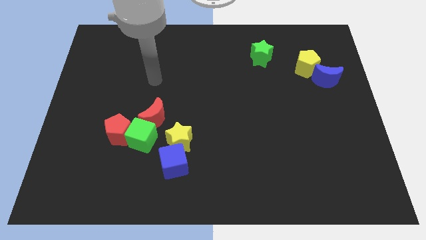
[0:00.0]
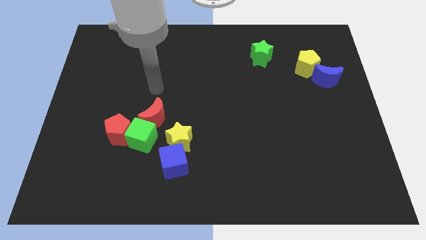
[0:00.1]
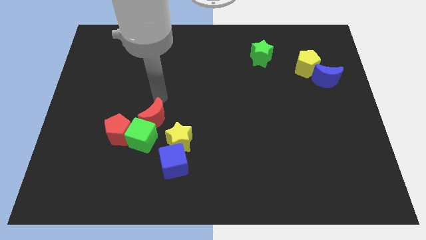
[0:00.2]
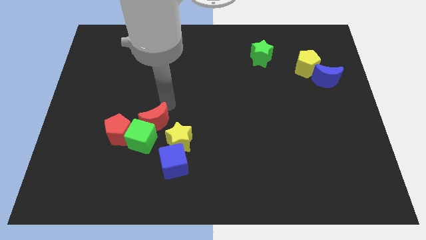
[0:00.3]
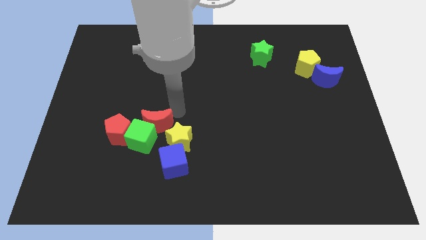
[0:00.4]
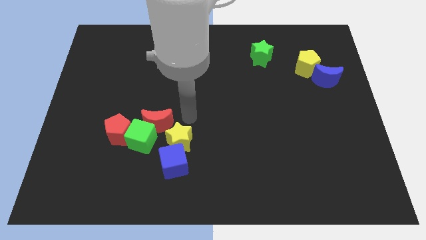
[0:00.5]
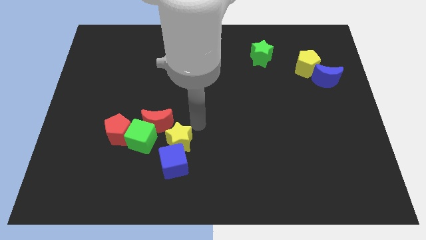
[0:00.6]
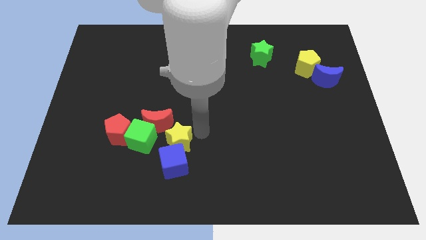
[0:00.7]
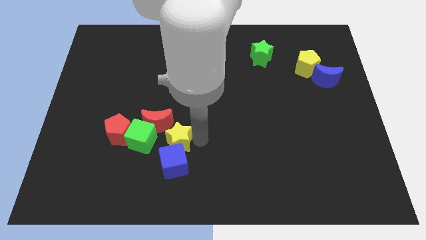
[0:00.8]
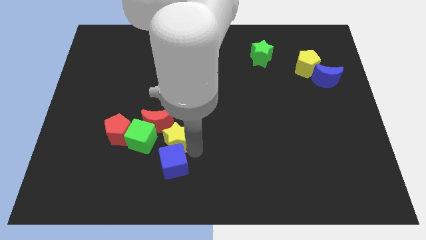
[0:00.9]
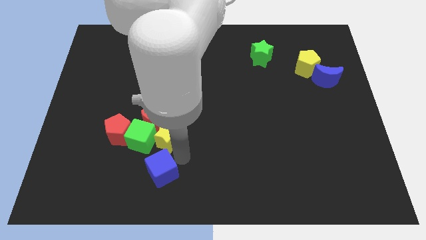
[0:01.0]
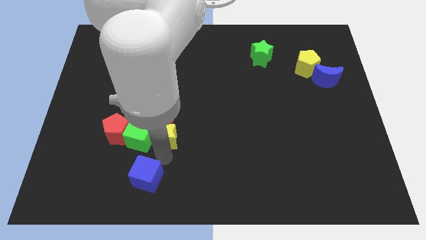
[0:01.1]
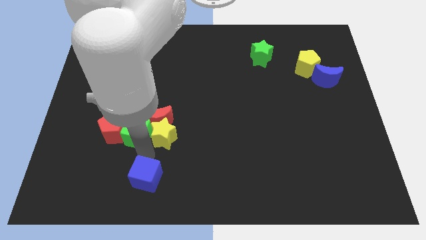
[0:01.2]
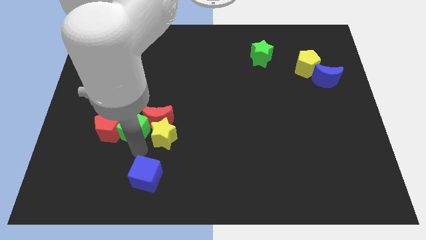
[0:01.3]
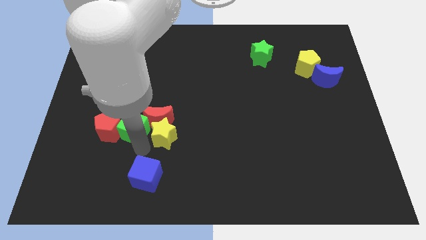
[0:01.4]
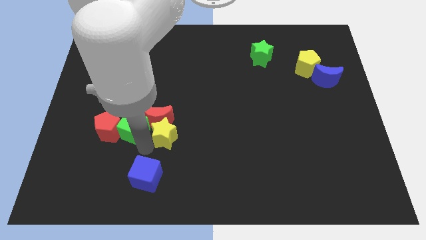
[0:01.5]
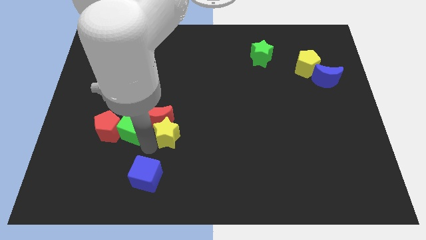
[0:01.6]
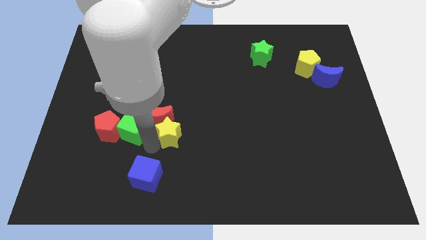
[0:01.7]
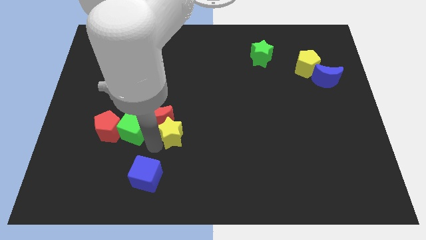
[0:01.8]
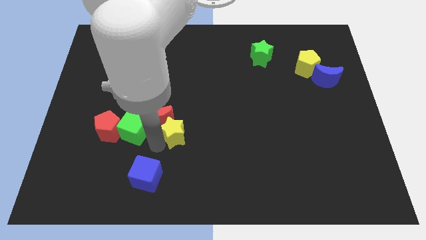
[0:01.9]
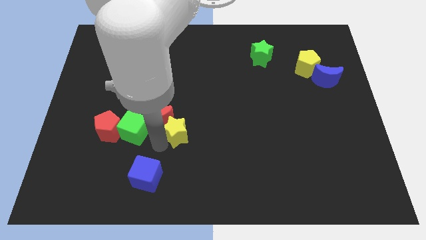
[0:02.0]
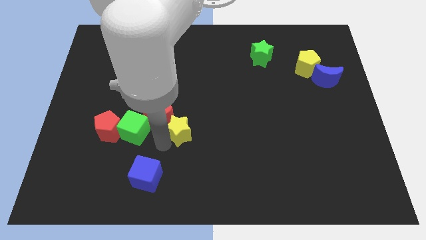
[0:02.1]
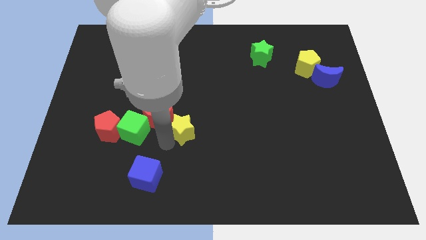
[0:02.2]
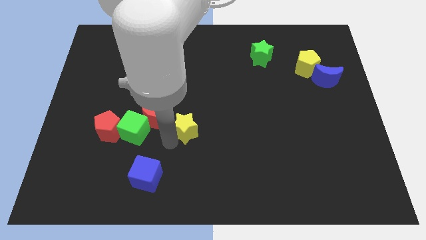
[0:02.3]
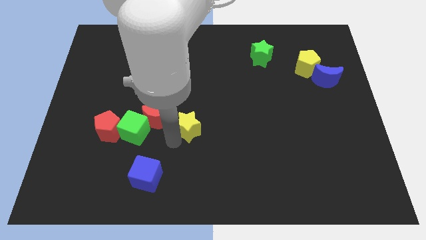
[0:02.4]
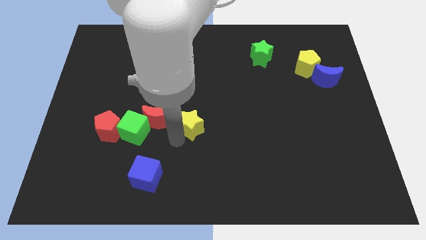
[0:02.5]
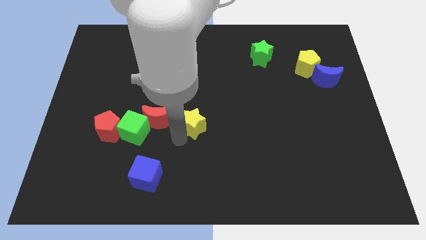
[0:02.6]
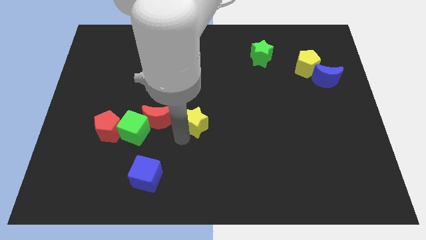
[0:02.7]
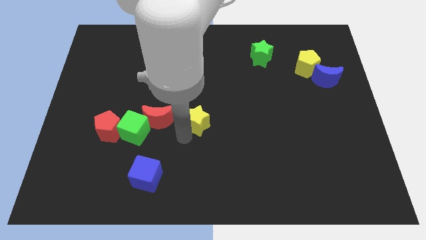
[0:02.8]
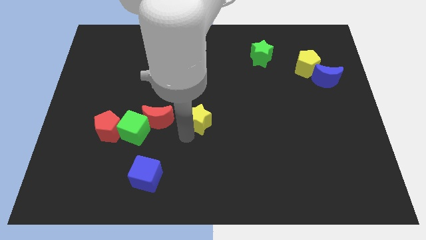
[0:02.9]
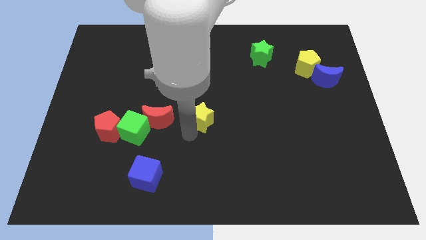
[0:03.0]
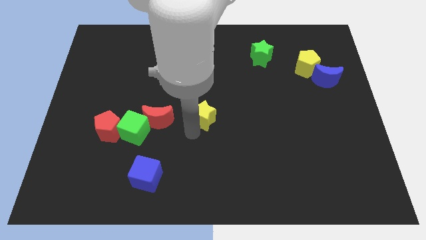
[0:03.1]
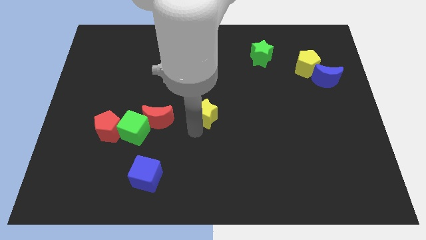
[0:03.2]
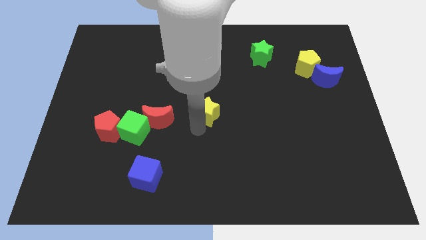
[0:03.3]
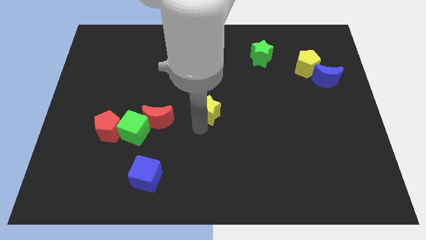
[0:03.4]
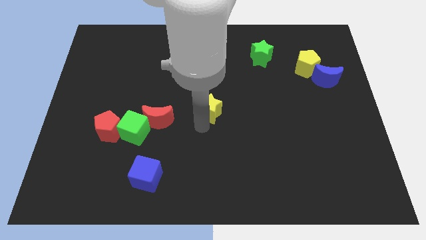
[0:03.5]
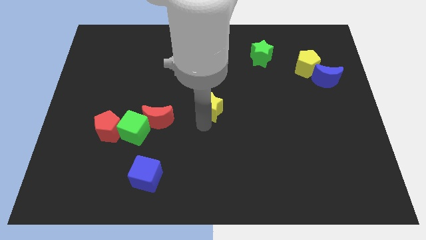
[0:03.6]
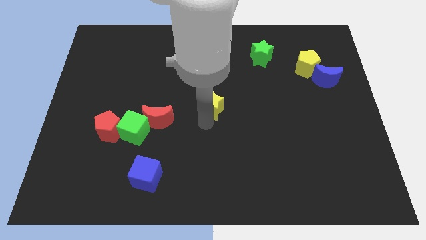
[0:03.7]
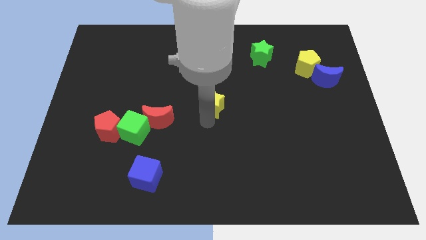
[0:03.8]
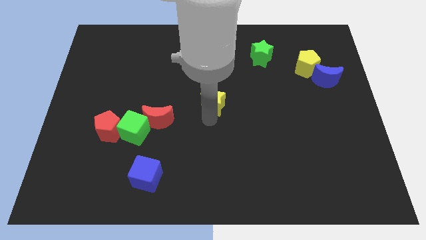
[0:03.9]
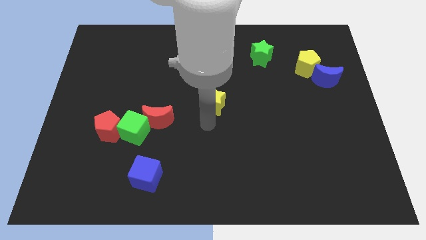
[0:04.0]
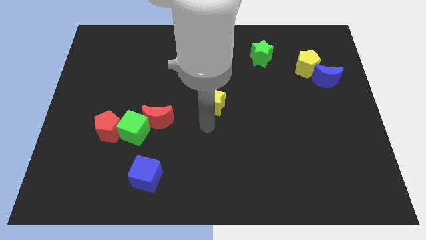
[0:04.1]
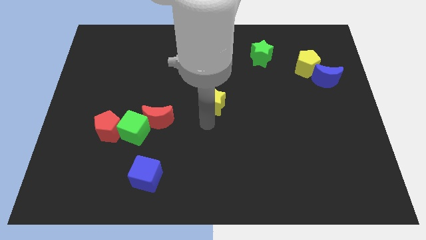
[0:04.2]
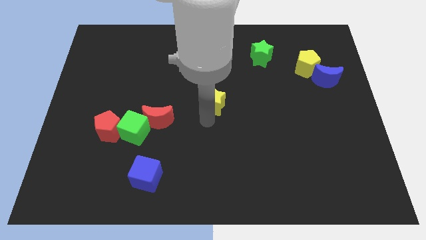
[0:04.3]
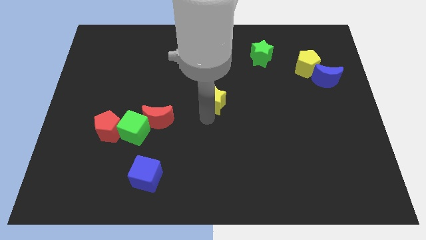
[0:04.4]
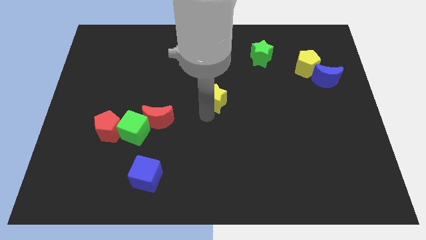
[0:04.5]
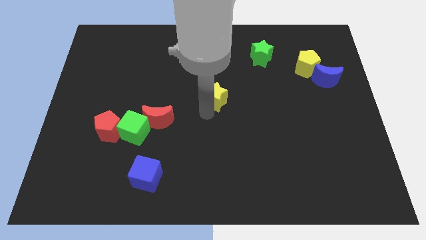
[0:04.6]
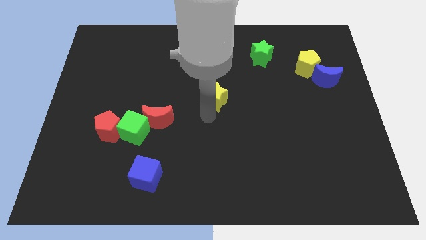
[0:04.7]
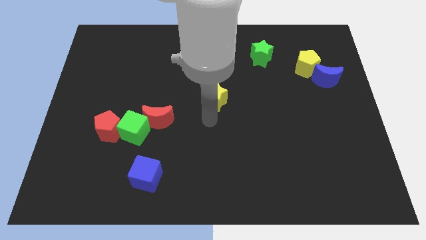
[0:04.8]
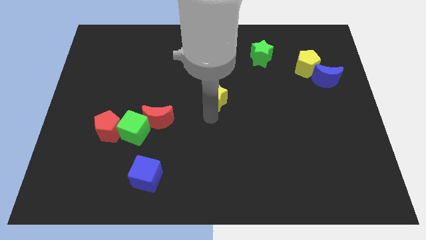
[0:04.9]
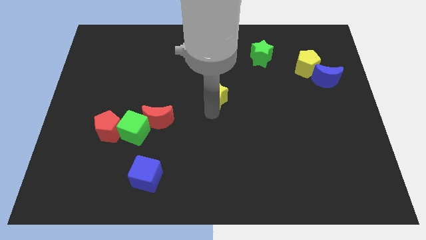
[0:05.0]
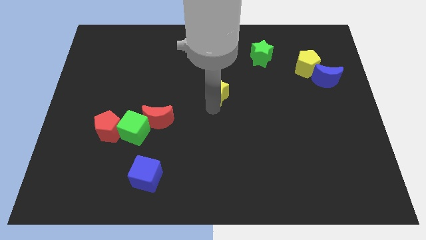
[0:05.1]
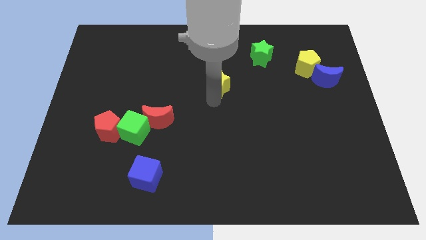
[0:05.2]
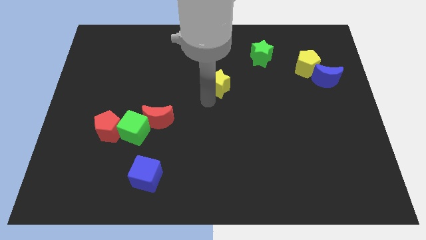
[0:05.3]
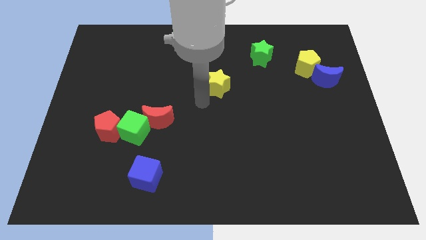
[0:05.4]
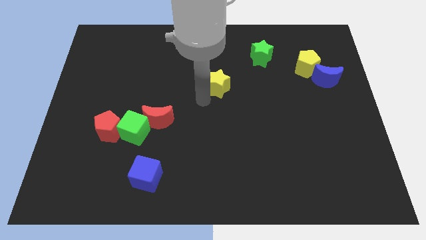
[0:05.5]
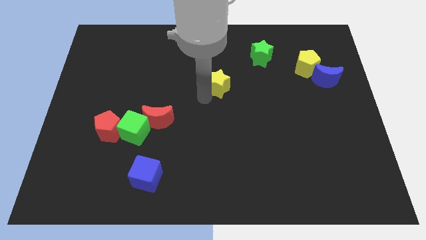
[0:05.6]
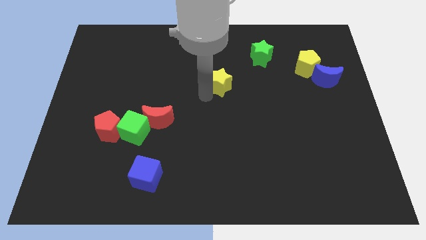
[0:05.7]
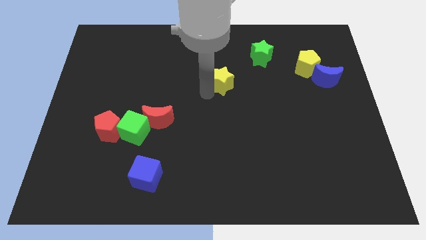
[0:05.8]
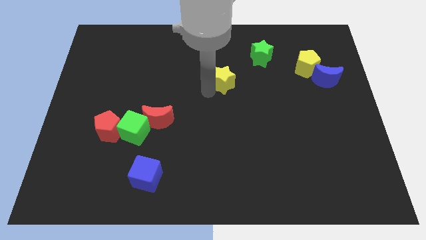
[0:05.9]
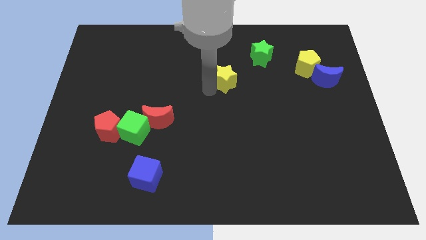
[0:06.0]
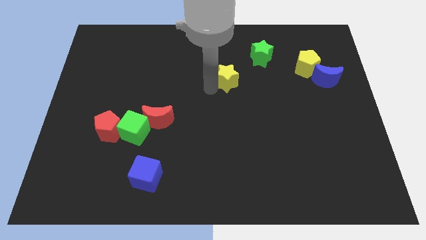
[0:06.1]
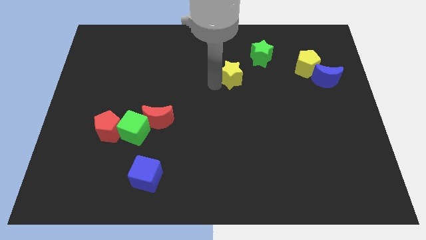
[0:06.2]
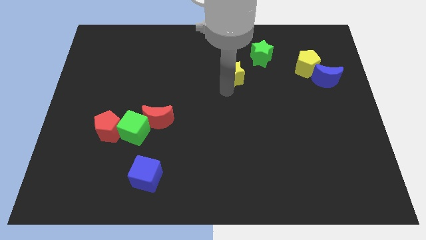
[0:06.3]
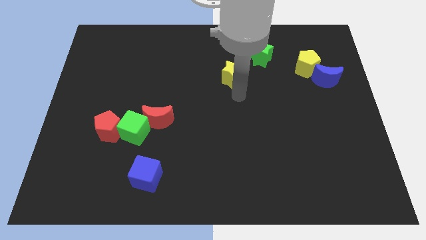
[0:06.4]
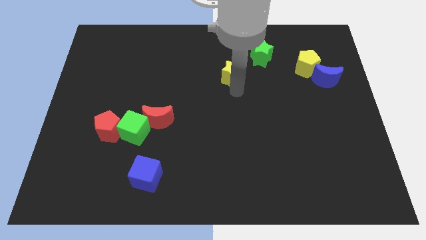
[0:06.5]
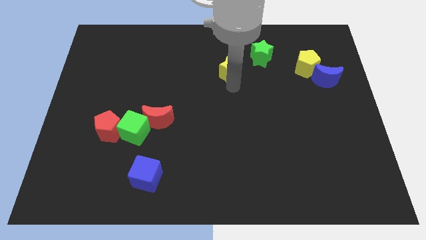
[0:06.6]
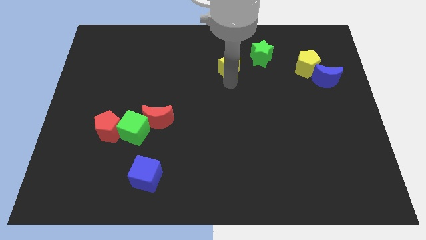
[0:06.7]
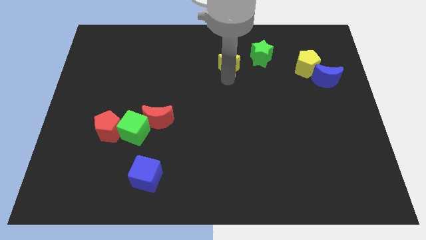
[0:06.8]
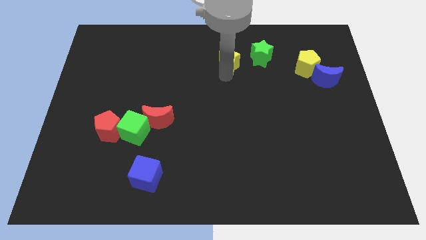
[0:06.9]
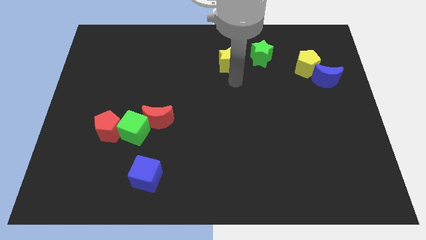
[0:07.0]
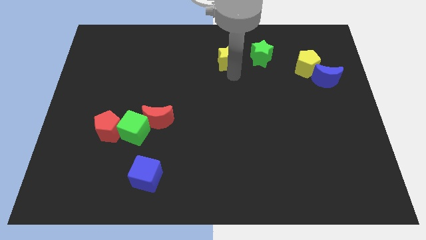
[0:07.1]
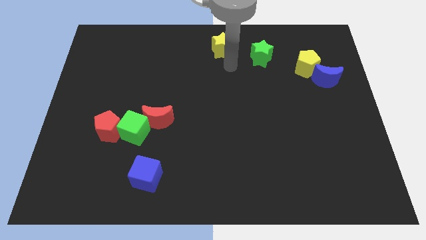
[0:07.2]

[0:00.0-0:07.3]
push the yellow star to the top
